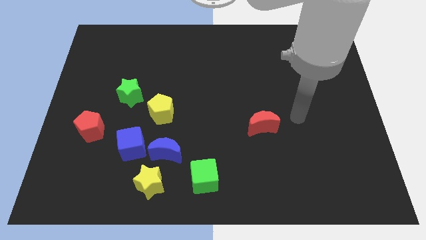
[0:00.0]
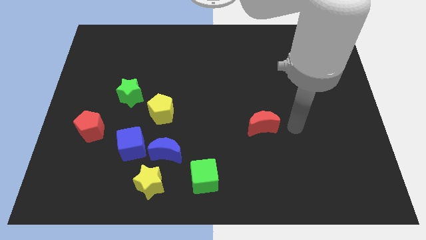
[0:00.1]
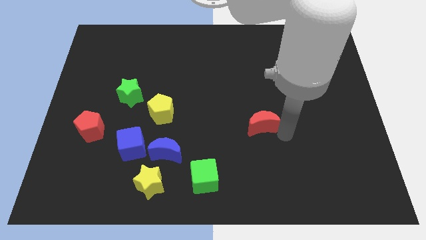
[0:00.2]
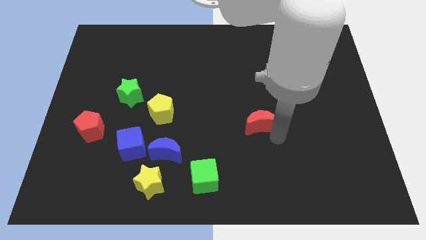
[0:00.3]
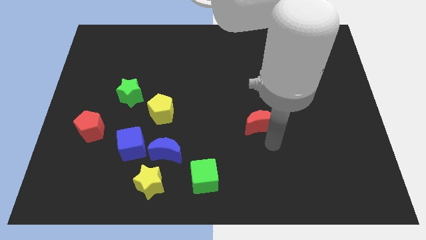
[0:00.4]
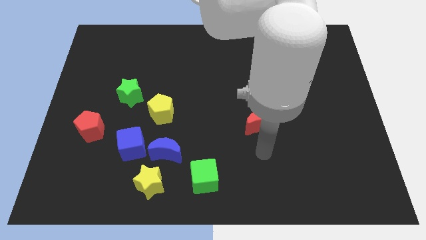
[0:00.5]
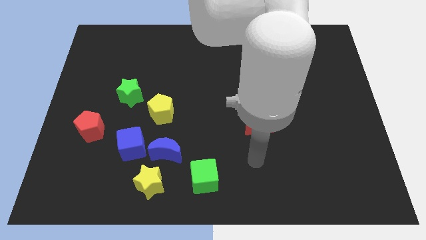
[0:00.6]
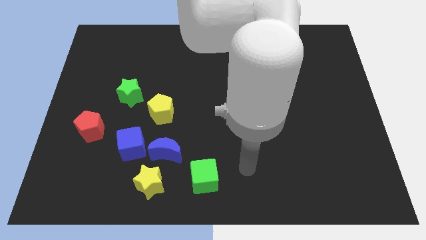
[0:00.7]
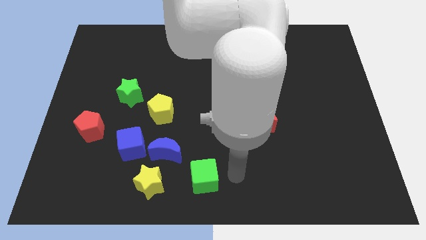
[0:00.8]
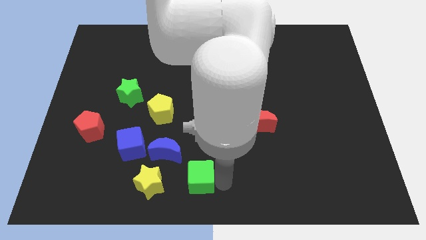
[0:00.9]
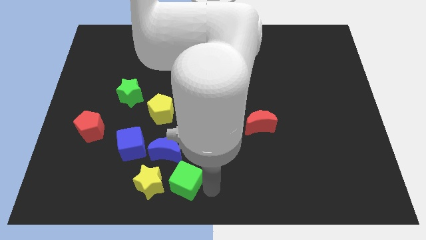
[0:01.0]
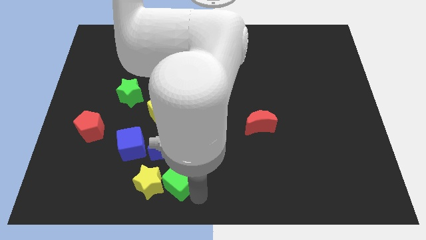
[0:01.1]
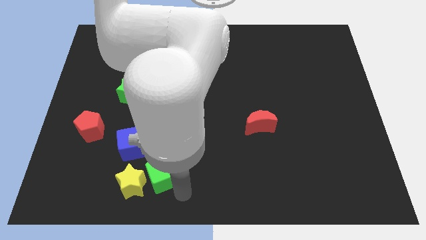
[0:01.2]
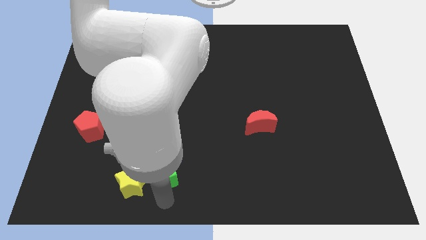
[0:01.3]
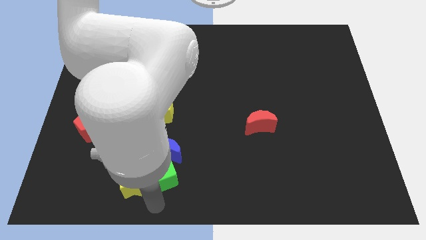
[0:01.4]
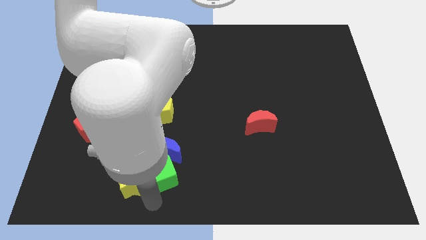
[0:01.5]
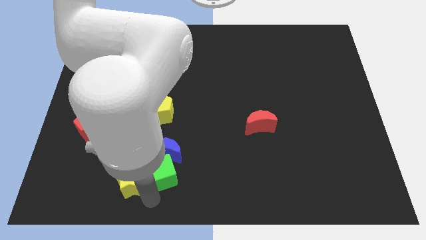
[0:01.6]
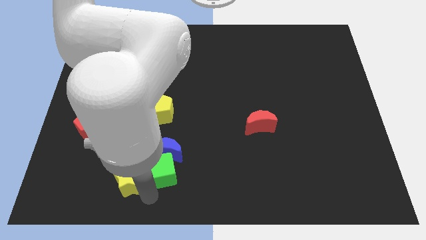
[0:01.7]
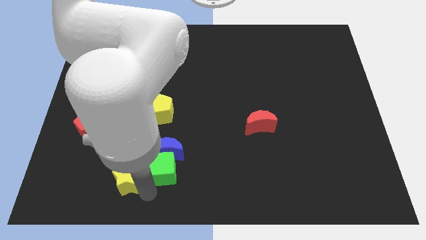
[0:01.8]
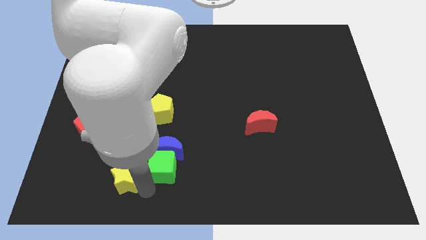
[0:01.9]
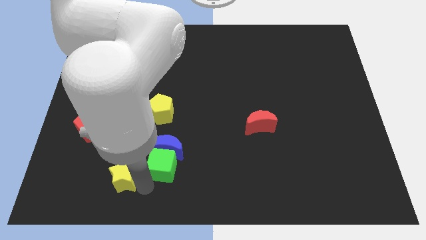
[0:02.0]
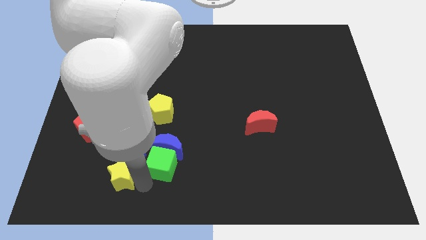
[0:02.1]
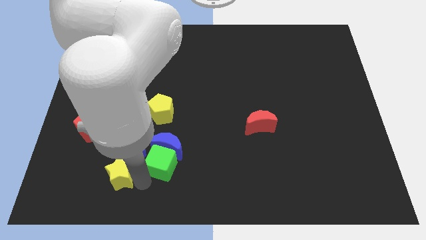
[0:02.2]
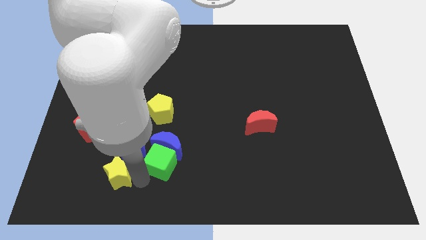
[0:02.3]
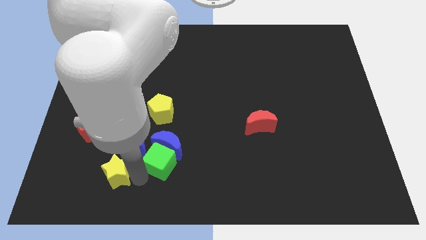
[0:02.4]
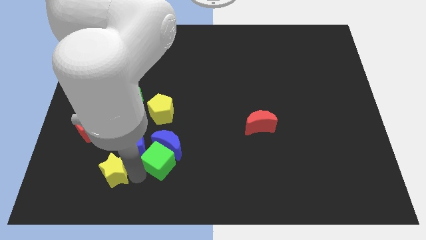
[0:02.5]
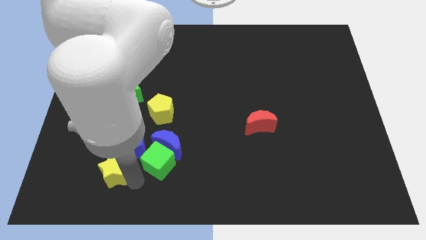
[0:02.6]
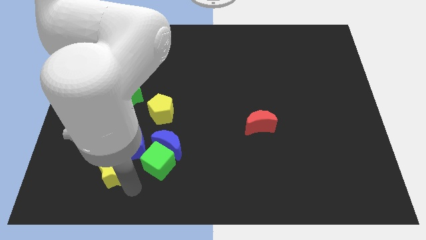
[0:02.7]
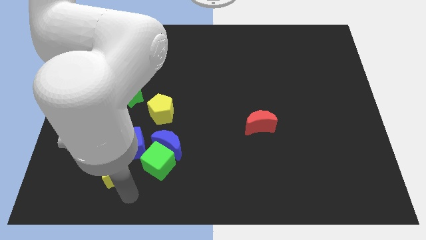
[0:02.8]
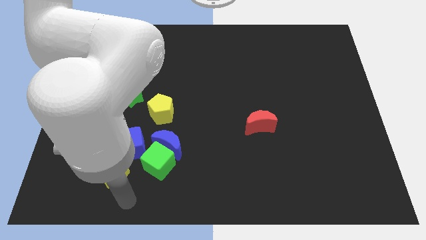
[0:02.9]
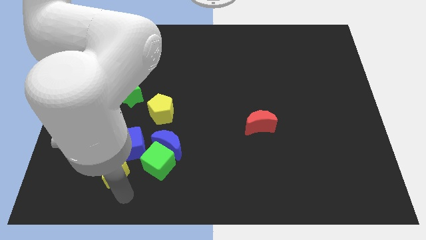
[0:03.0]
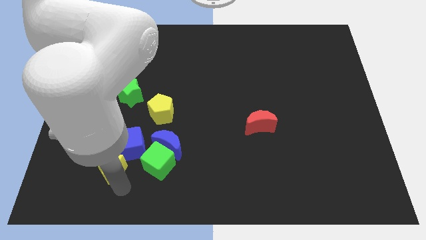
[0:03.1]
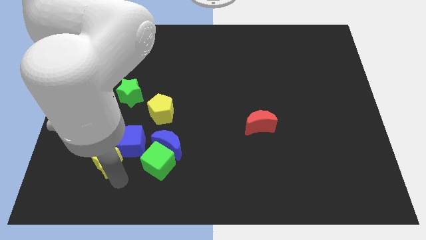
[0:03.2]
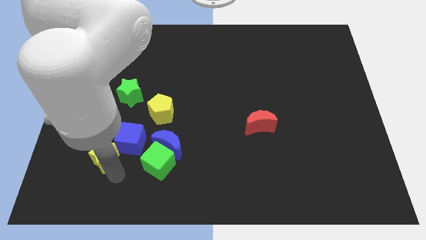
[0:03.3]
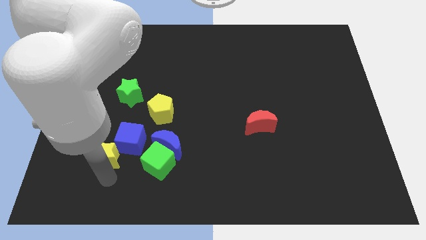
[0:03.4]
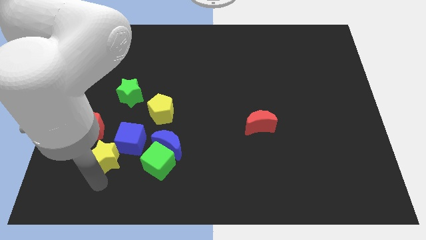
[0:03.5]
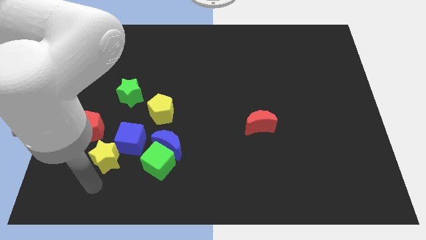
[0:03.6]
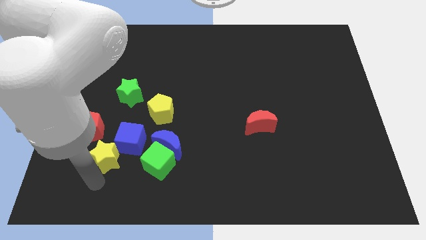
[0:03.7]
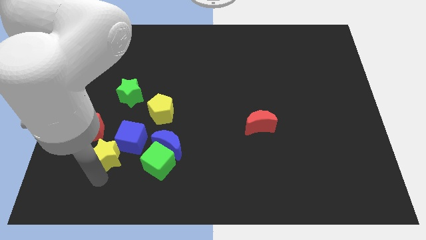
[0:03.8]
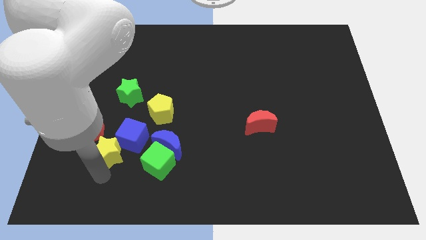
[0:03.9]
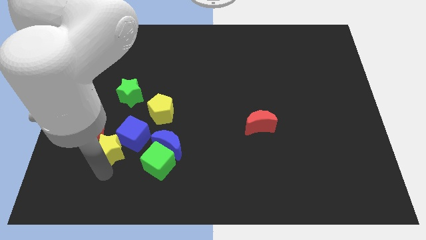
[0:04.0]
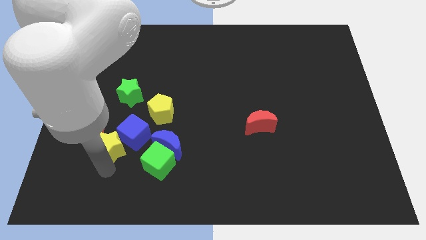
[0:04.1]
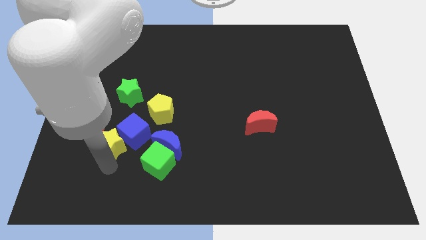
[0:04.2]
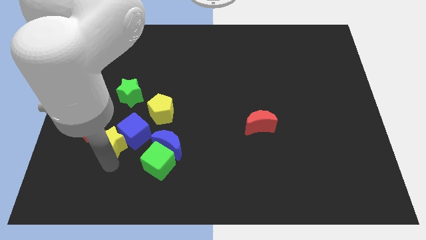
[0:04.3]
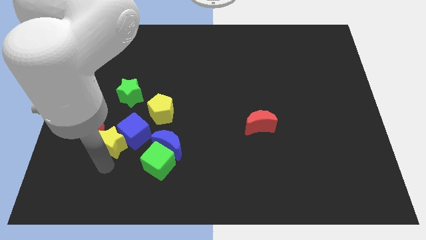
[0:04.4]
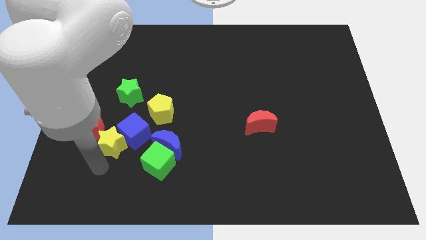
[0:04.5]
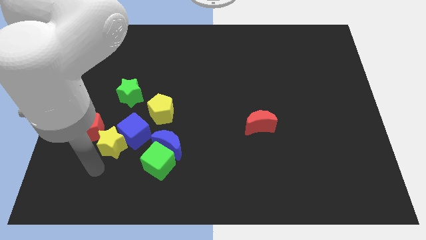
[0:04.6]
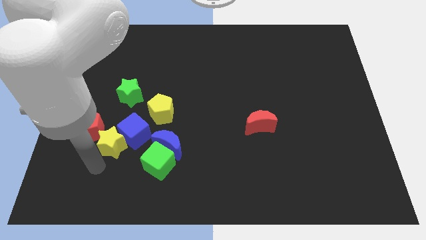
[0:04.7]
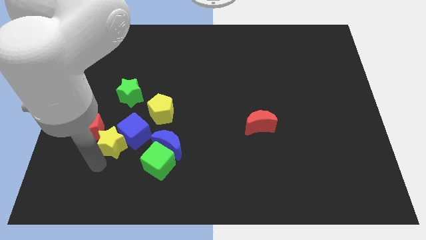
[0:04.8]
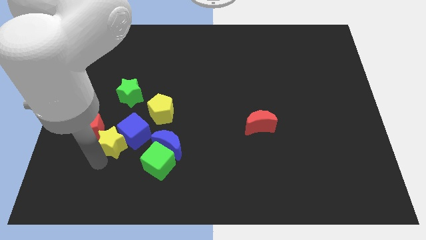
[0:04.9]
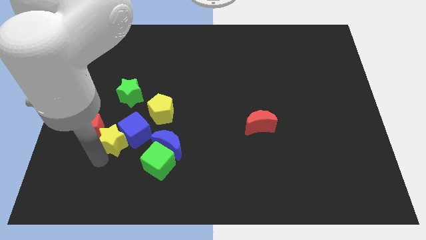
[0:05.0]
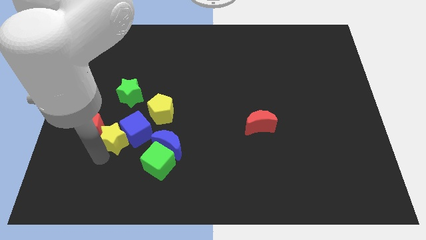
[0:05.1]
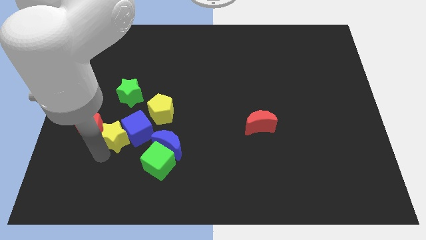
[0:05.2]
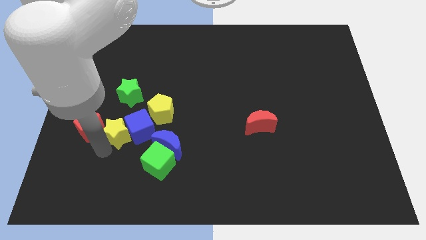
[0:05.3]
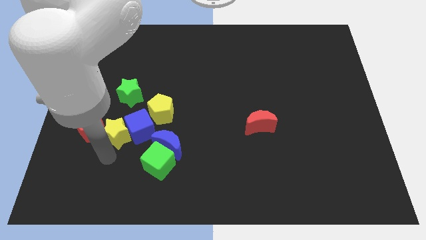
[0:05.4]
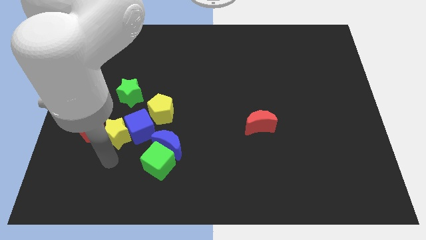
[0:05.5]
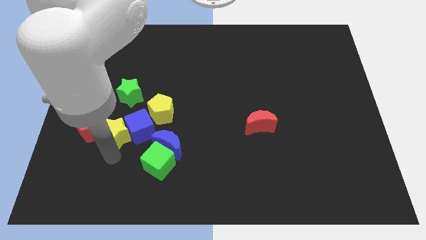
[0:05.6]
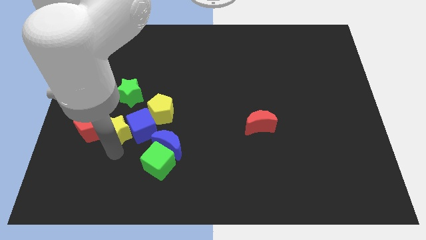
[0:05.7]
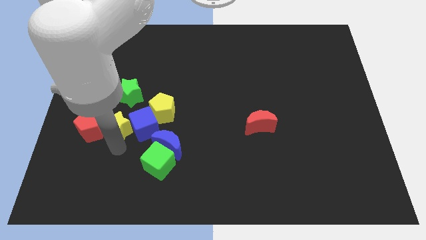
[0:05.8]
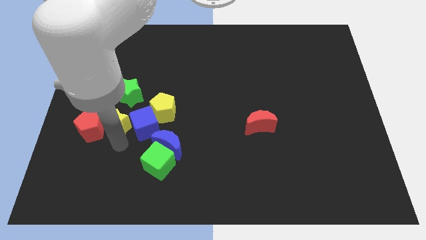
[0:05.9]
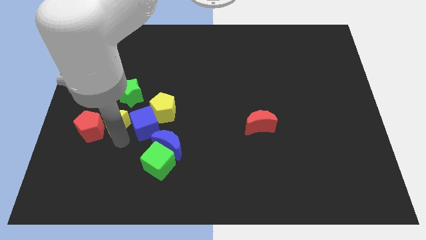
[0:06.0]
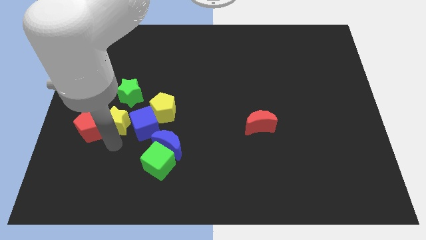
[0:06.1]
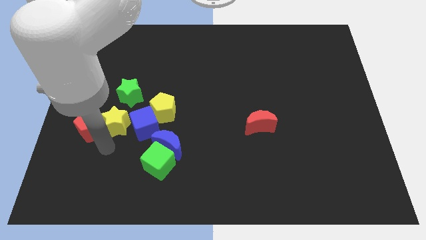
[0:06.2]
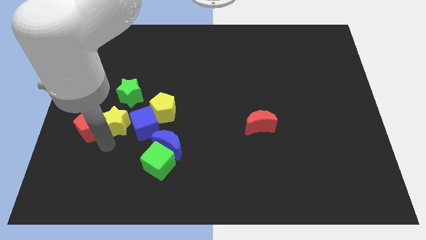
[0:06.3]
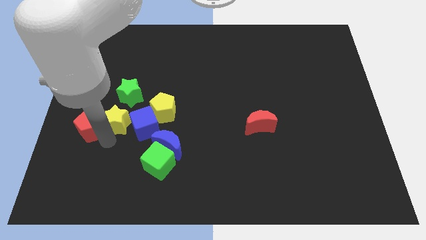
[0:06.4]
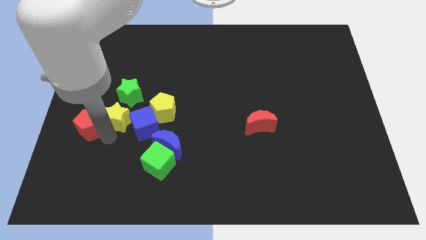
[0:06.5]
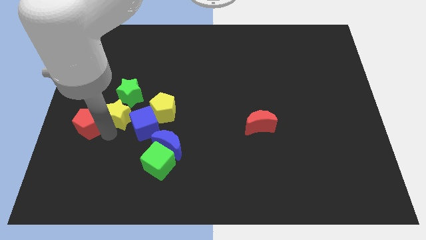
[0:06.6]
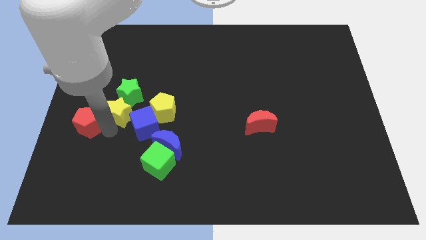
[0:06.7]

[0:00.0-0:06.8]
move the yellow star close to the green star
